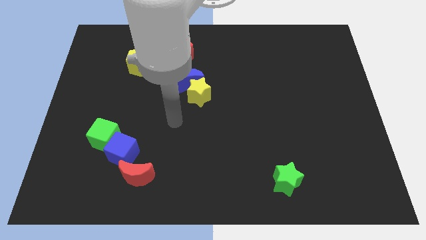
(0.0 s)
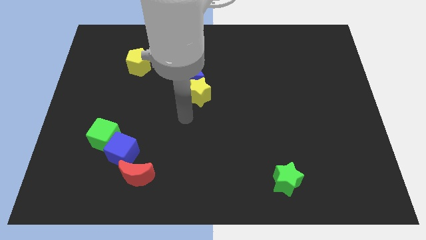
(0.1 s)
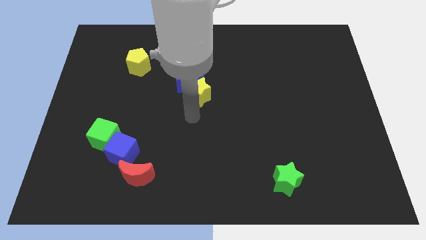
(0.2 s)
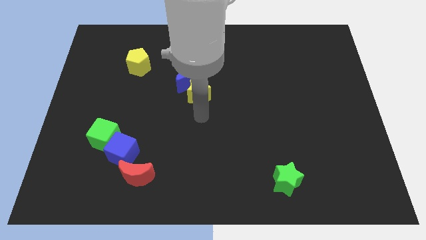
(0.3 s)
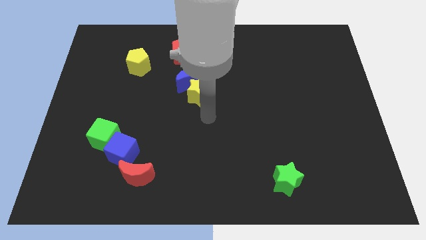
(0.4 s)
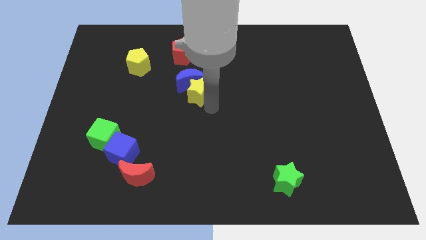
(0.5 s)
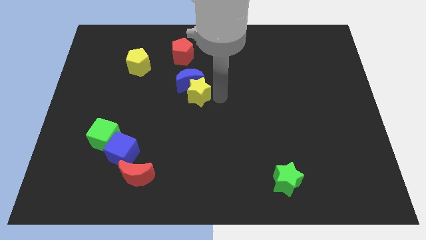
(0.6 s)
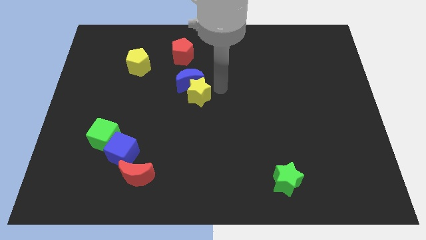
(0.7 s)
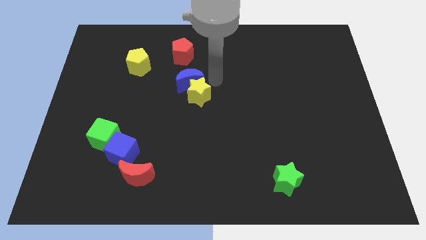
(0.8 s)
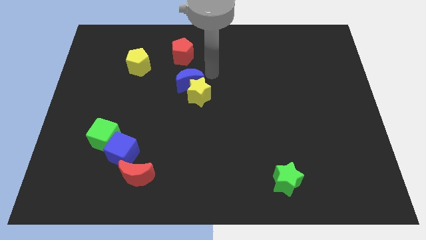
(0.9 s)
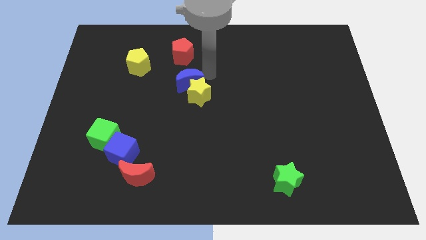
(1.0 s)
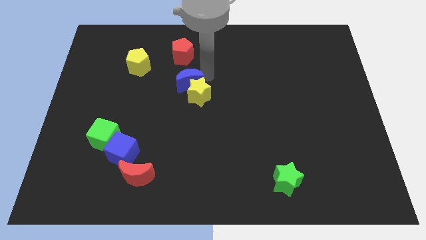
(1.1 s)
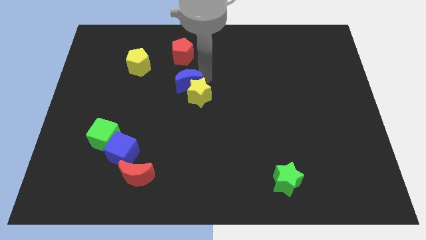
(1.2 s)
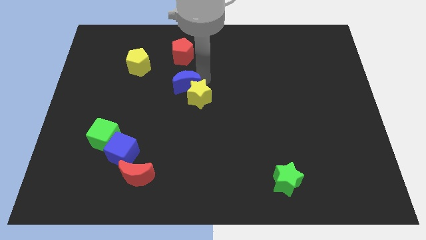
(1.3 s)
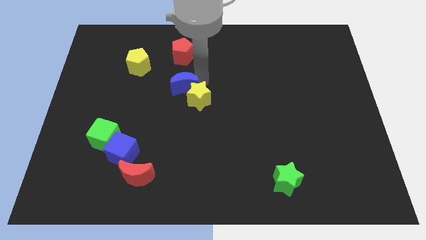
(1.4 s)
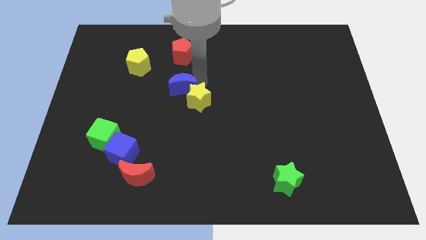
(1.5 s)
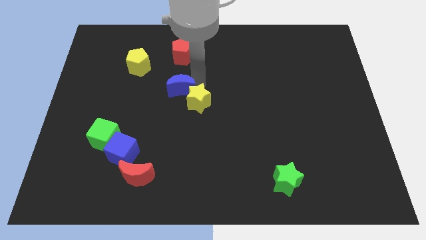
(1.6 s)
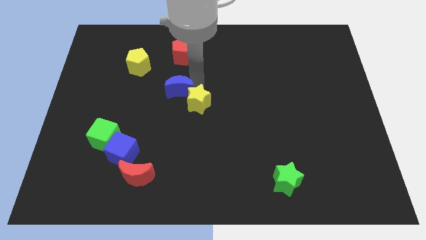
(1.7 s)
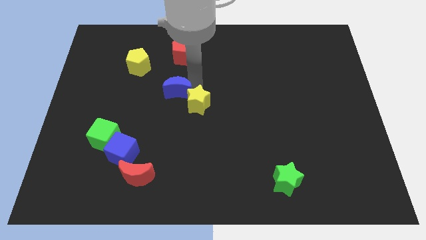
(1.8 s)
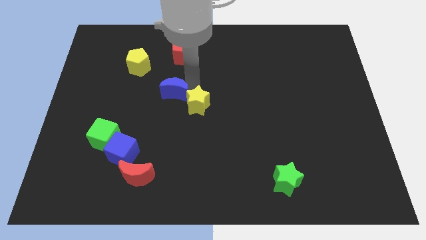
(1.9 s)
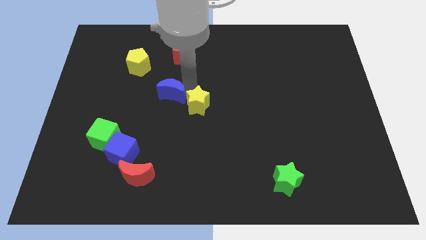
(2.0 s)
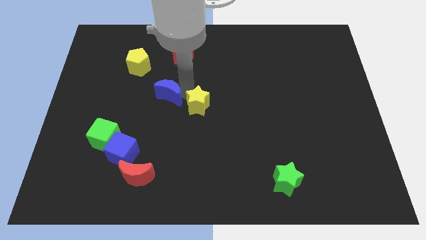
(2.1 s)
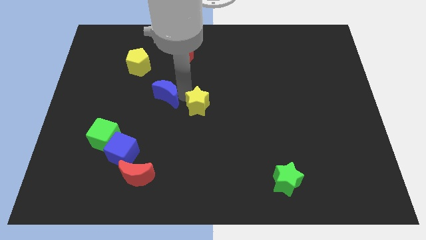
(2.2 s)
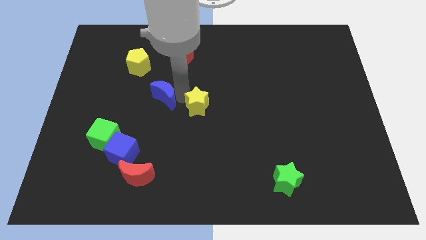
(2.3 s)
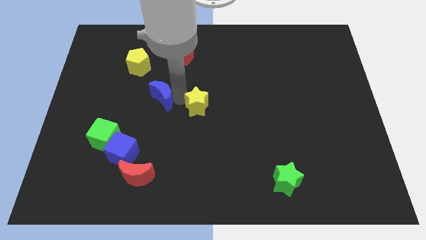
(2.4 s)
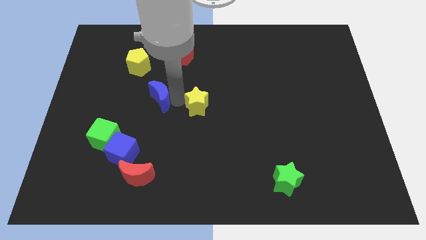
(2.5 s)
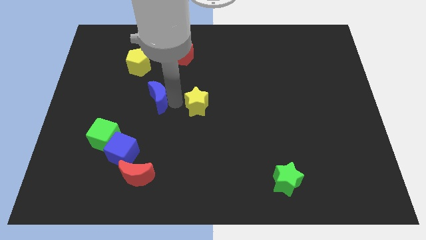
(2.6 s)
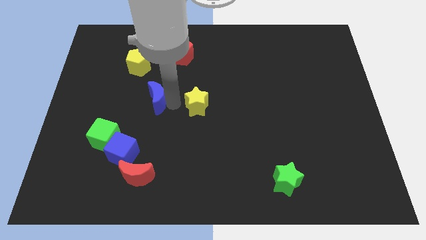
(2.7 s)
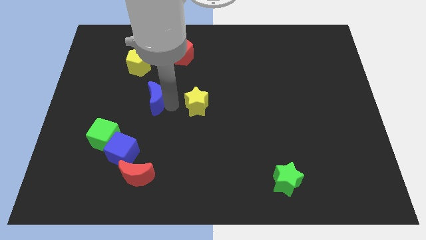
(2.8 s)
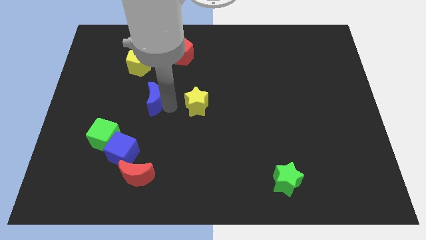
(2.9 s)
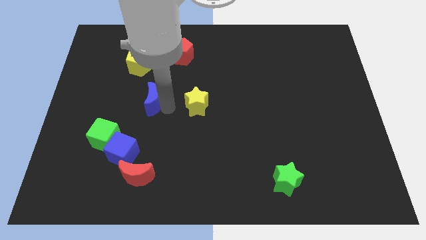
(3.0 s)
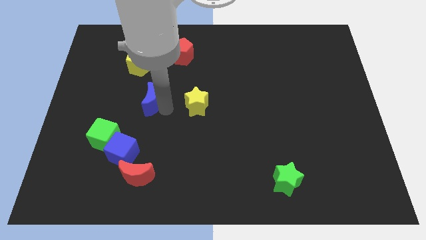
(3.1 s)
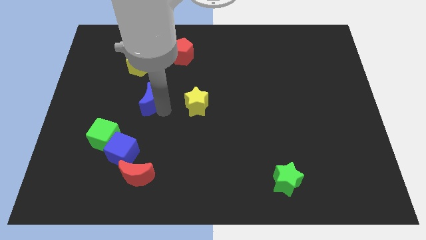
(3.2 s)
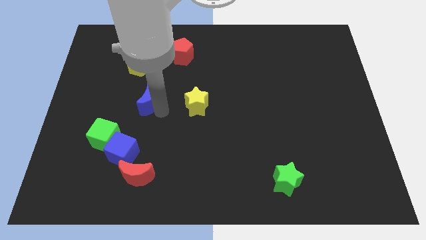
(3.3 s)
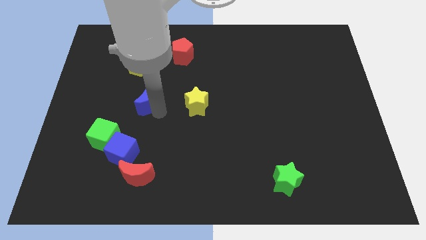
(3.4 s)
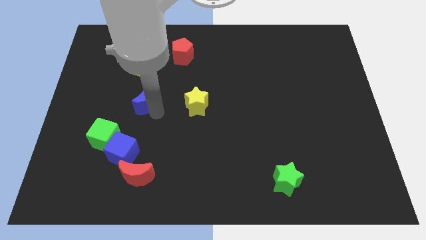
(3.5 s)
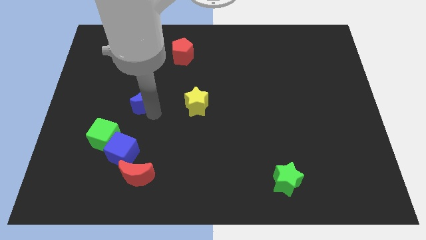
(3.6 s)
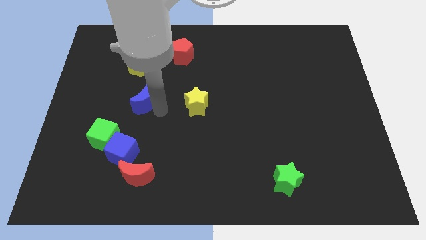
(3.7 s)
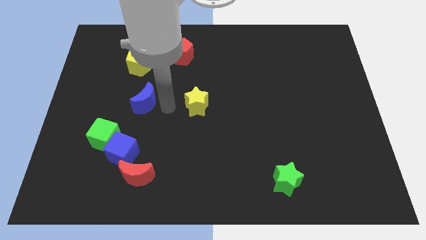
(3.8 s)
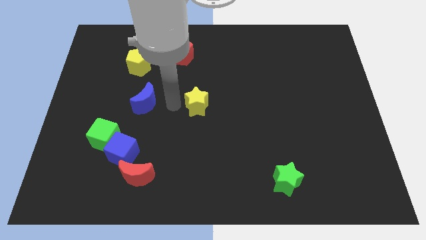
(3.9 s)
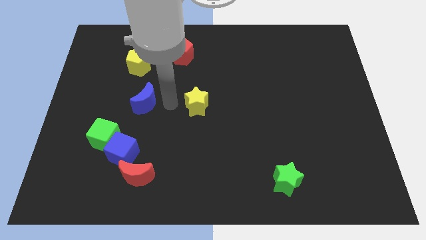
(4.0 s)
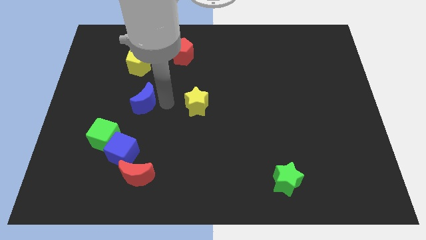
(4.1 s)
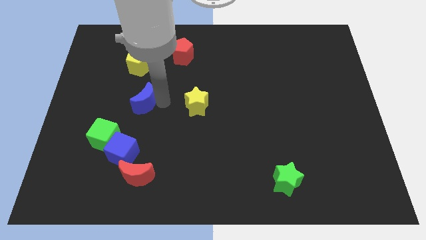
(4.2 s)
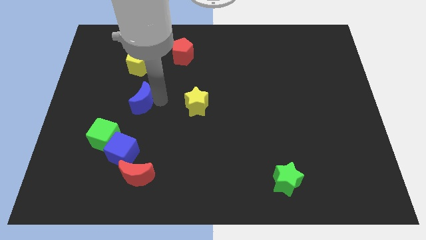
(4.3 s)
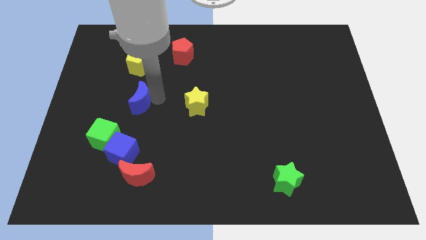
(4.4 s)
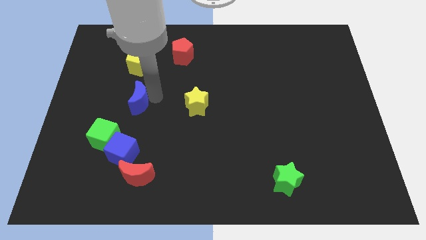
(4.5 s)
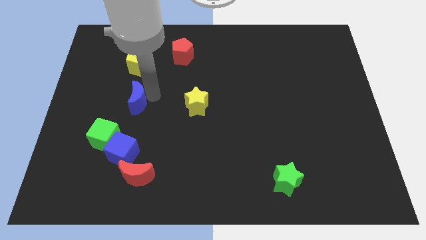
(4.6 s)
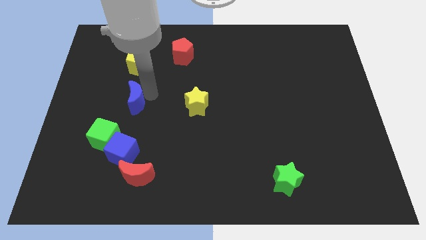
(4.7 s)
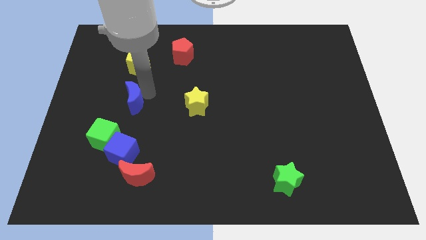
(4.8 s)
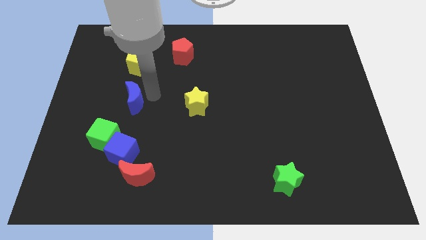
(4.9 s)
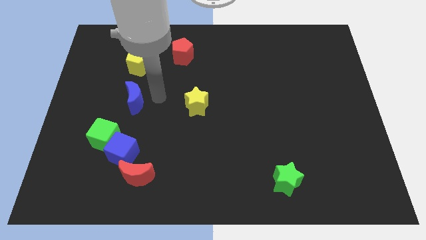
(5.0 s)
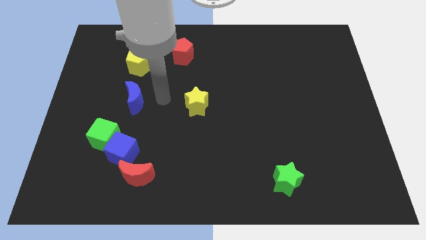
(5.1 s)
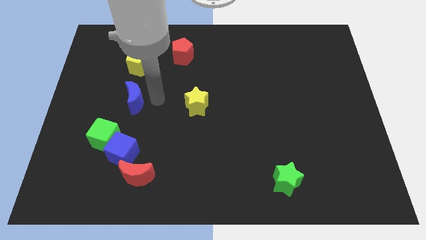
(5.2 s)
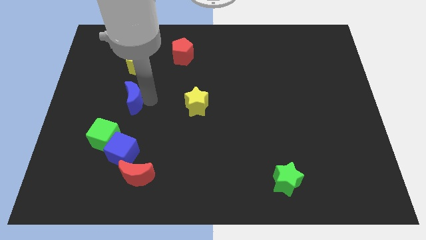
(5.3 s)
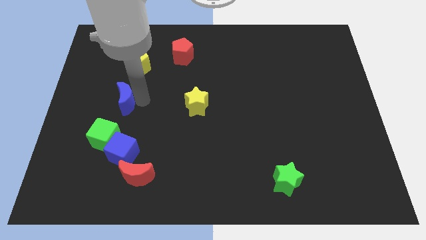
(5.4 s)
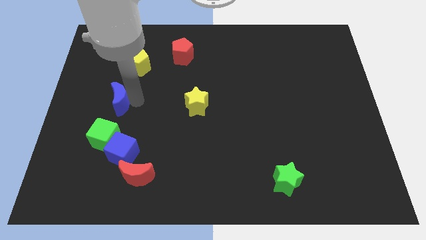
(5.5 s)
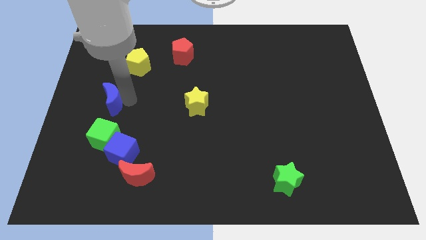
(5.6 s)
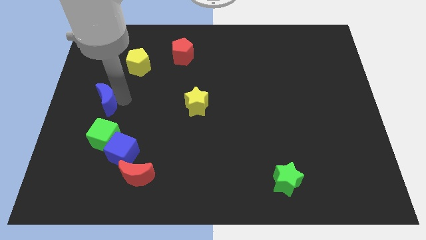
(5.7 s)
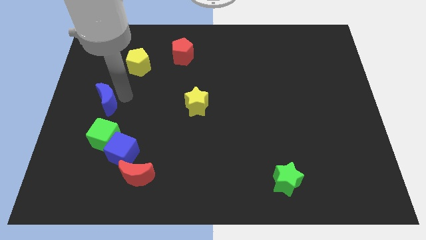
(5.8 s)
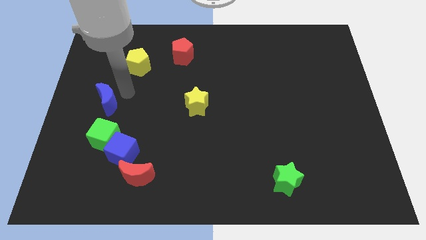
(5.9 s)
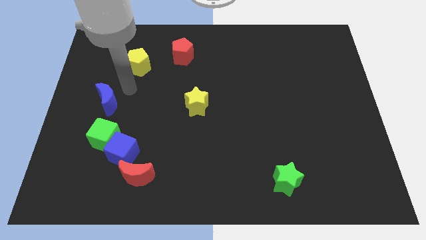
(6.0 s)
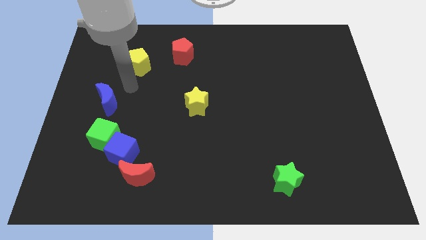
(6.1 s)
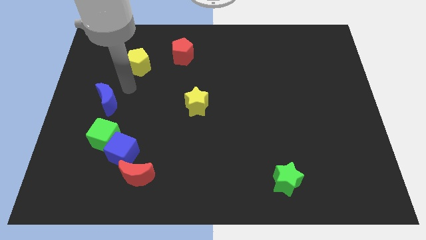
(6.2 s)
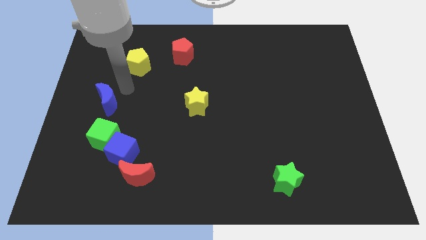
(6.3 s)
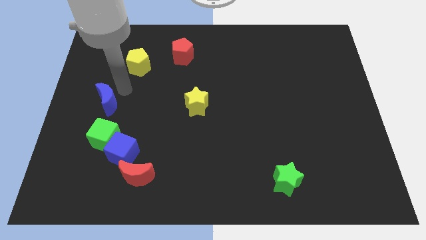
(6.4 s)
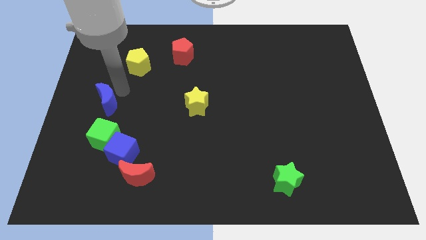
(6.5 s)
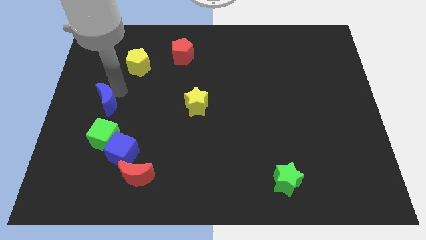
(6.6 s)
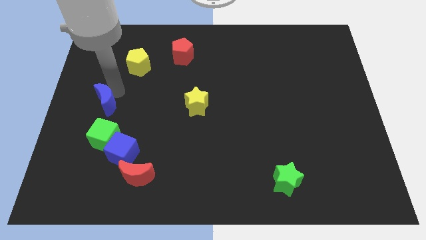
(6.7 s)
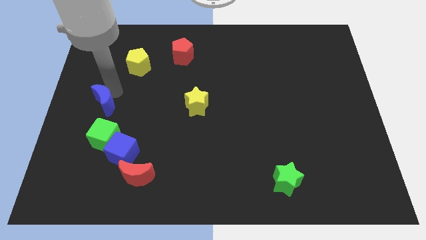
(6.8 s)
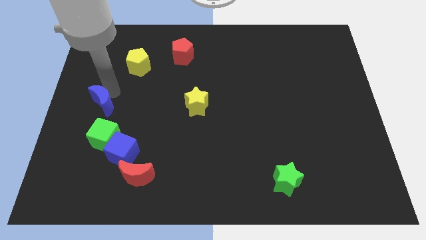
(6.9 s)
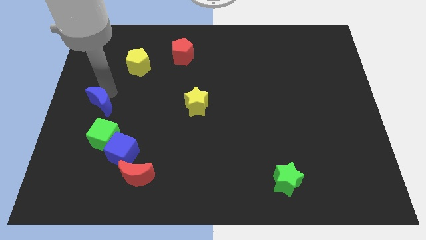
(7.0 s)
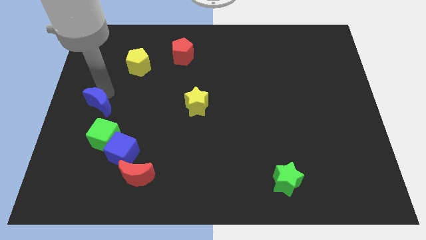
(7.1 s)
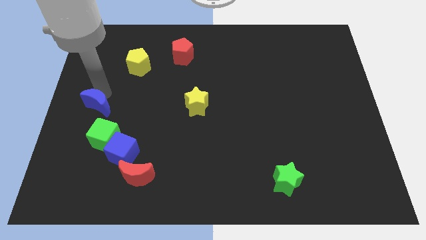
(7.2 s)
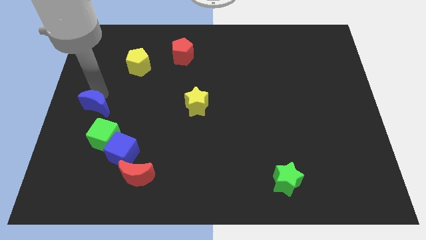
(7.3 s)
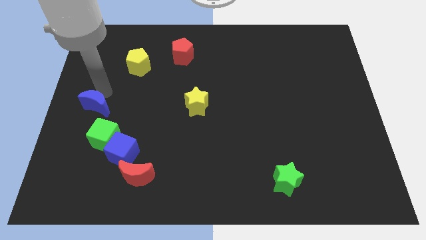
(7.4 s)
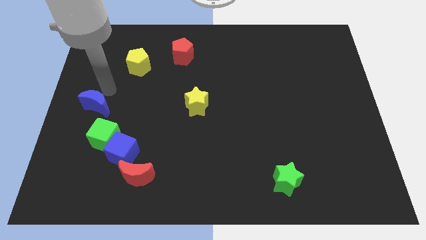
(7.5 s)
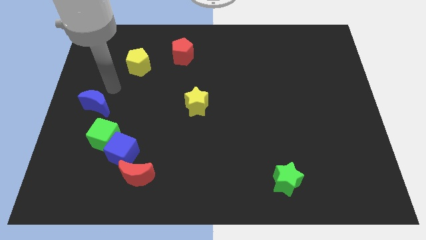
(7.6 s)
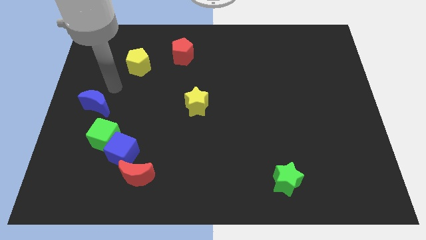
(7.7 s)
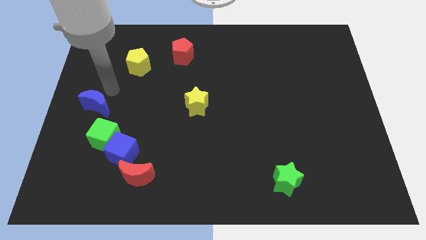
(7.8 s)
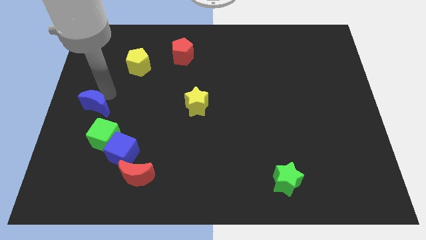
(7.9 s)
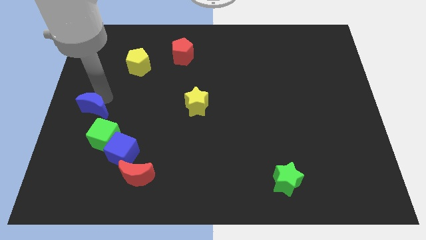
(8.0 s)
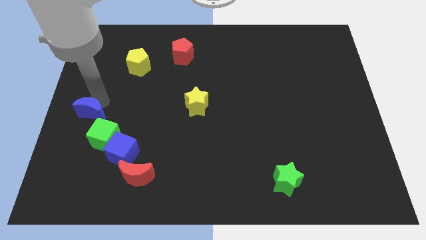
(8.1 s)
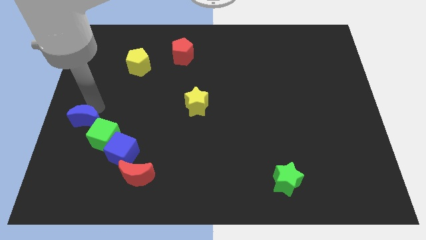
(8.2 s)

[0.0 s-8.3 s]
slide the blue moon diagonally downwards and to the left

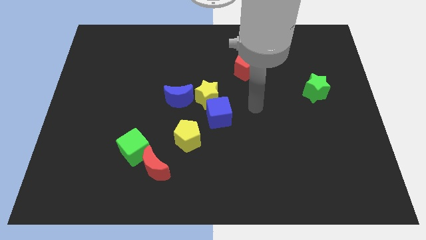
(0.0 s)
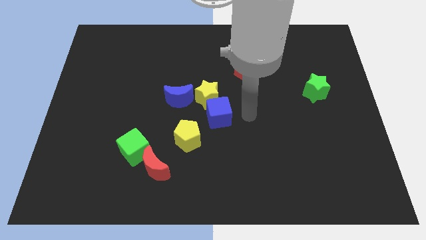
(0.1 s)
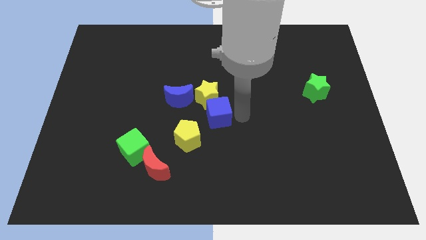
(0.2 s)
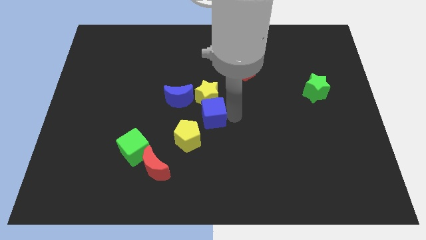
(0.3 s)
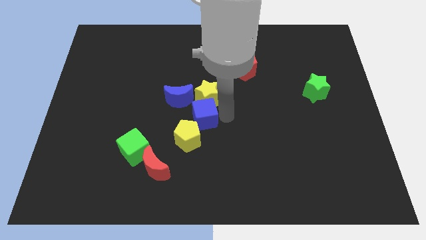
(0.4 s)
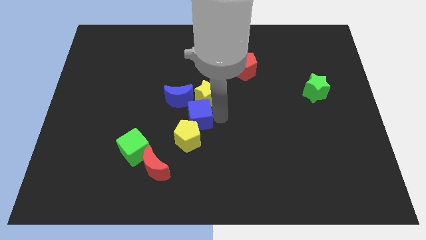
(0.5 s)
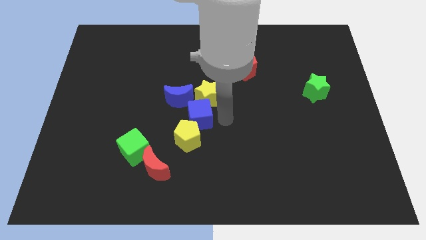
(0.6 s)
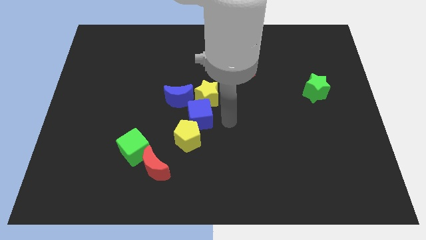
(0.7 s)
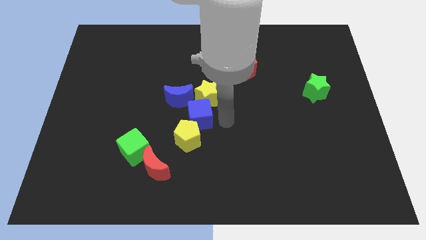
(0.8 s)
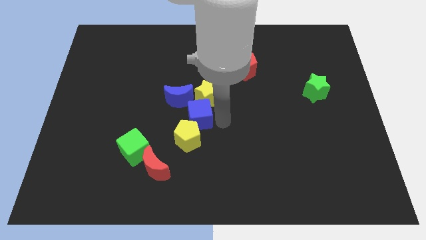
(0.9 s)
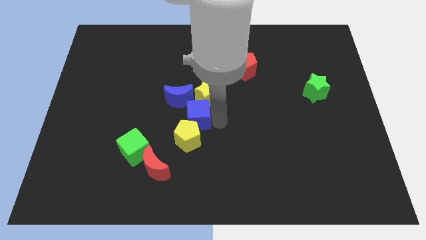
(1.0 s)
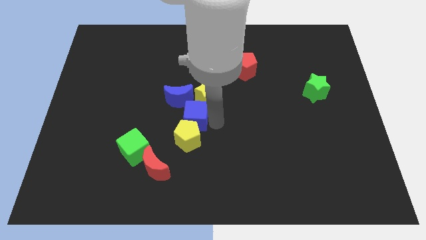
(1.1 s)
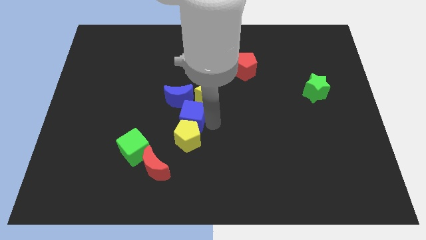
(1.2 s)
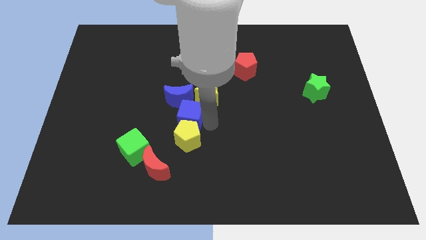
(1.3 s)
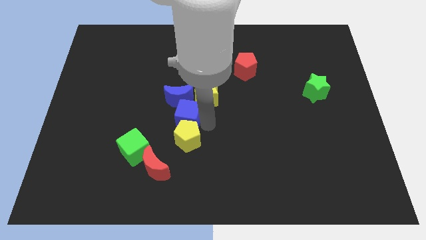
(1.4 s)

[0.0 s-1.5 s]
slide the blue cube to the left a little bit
